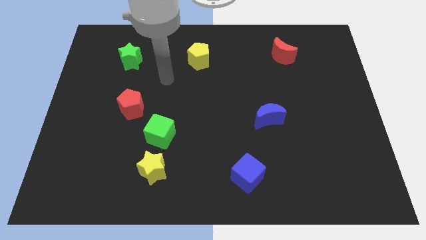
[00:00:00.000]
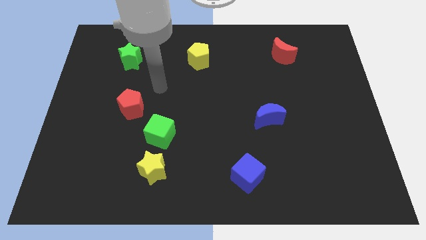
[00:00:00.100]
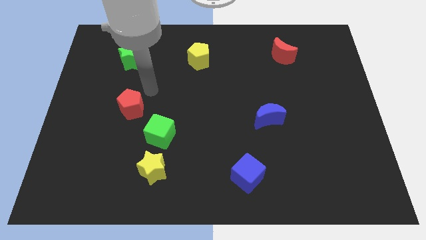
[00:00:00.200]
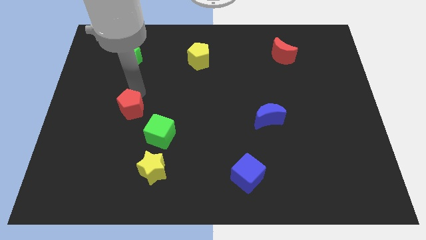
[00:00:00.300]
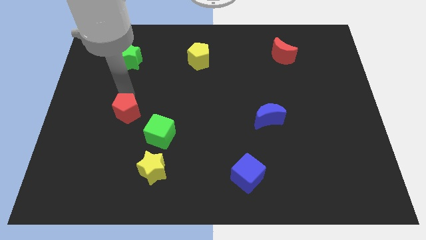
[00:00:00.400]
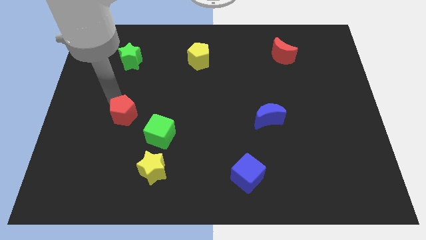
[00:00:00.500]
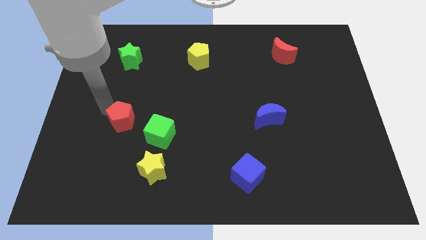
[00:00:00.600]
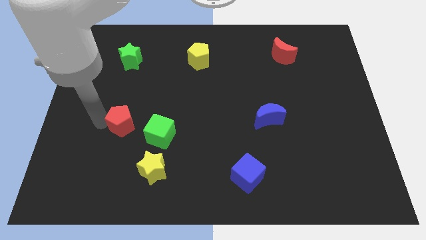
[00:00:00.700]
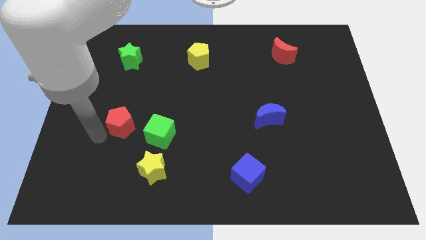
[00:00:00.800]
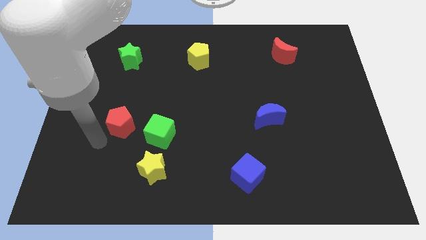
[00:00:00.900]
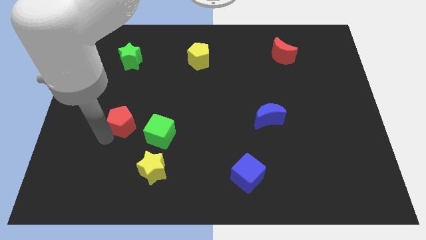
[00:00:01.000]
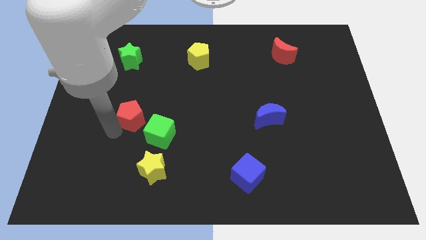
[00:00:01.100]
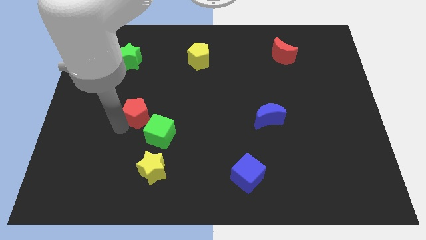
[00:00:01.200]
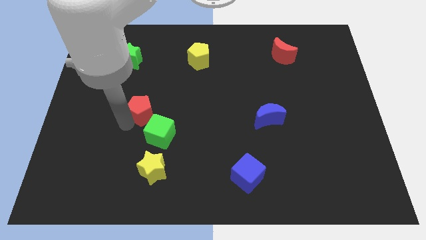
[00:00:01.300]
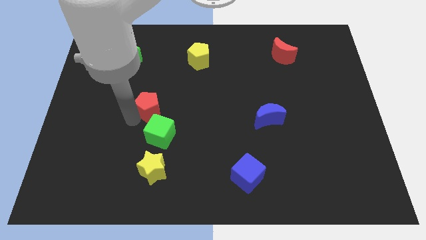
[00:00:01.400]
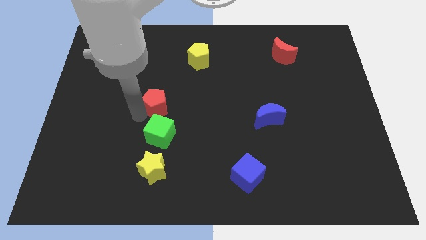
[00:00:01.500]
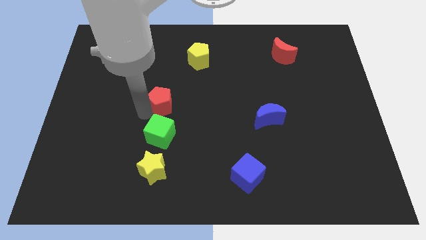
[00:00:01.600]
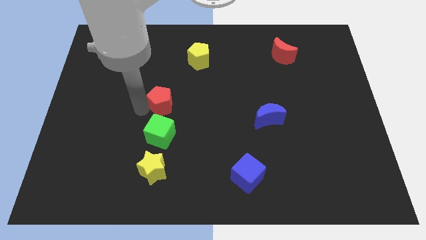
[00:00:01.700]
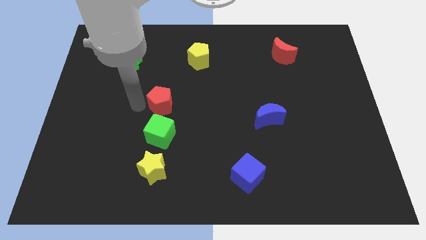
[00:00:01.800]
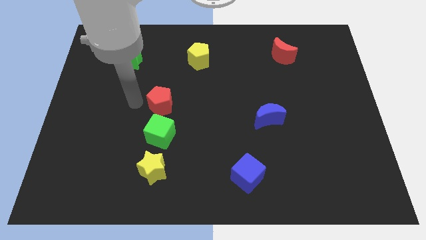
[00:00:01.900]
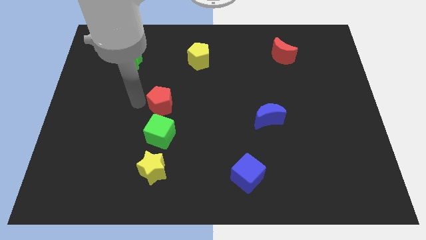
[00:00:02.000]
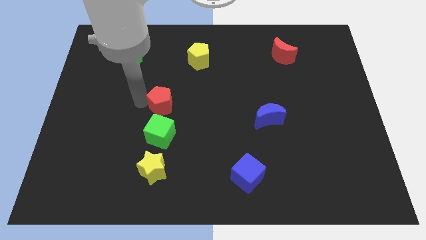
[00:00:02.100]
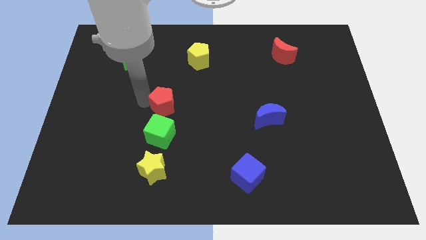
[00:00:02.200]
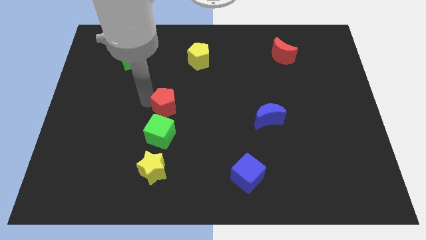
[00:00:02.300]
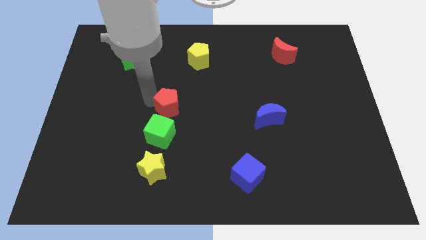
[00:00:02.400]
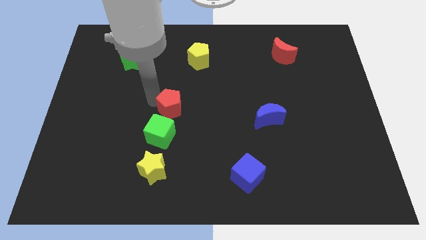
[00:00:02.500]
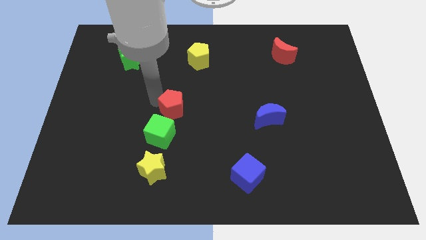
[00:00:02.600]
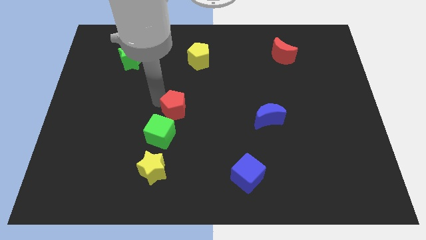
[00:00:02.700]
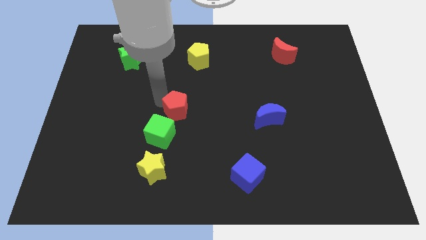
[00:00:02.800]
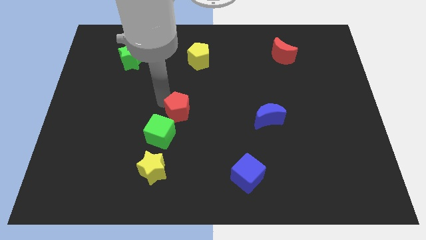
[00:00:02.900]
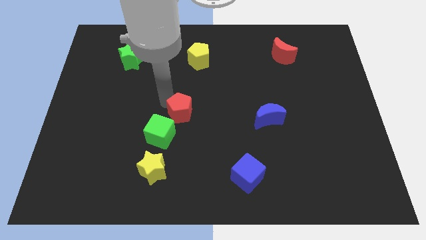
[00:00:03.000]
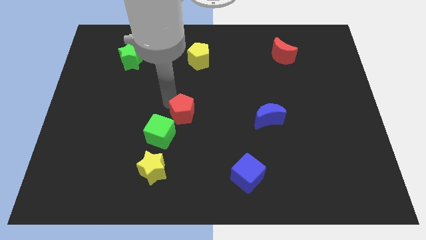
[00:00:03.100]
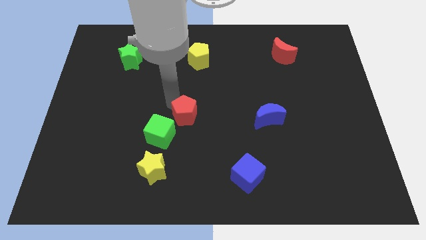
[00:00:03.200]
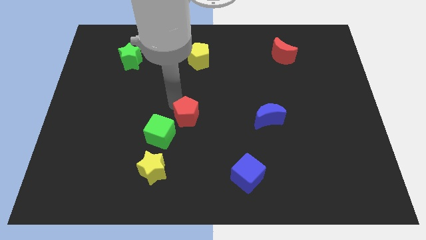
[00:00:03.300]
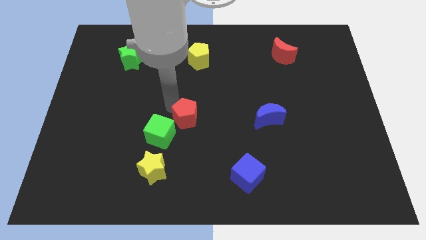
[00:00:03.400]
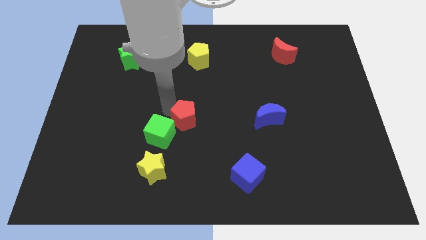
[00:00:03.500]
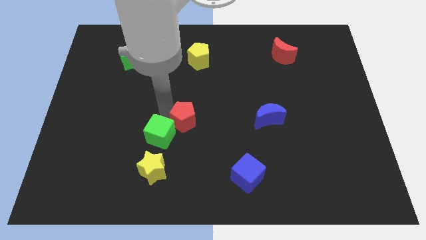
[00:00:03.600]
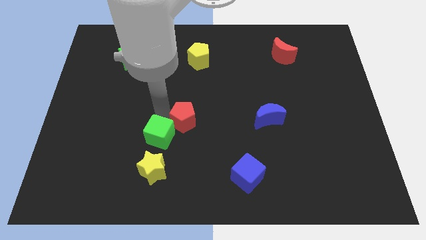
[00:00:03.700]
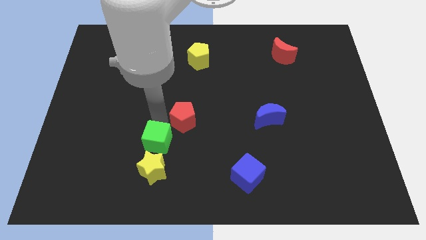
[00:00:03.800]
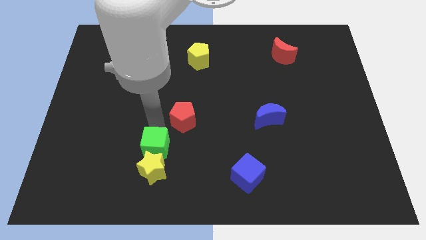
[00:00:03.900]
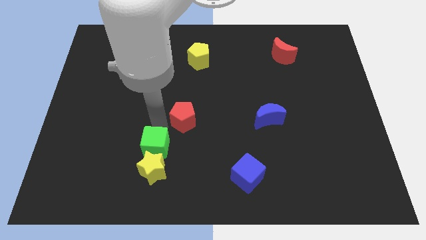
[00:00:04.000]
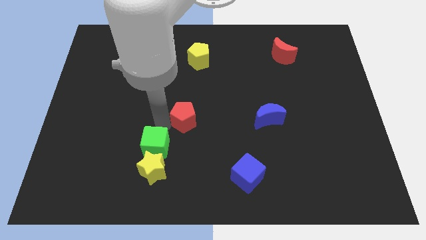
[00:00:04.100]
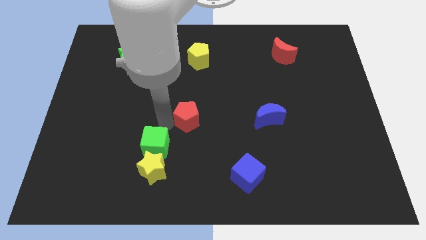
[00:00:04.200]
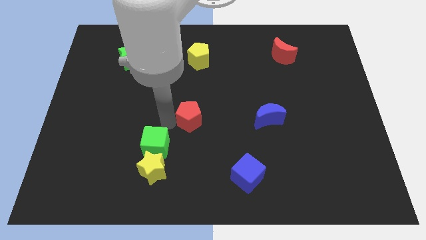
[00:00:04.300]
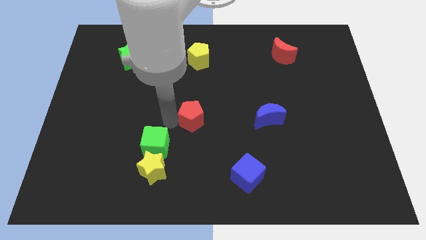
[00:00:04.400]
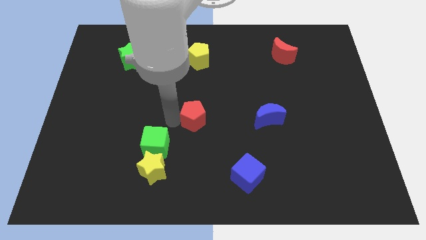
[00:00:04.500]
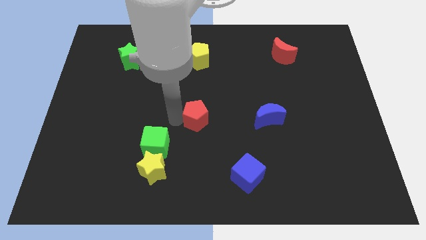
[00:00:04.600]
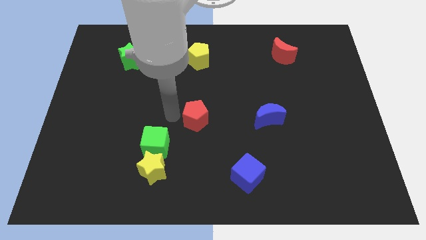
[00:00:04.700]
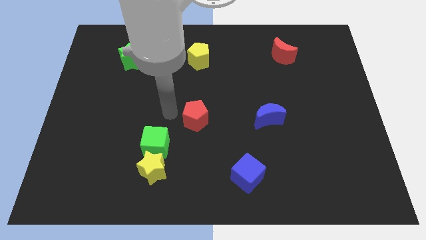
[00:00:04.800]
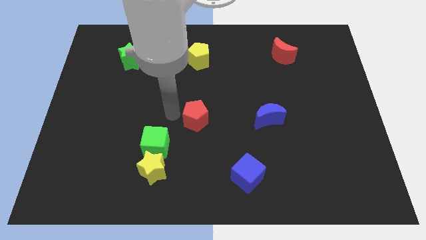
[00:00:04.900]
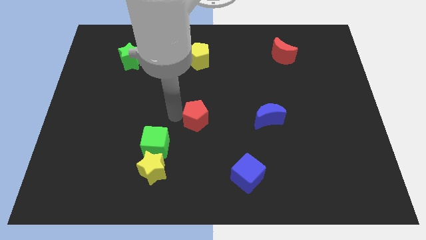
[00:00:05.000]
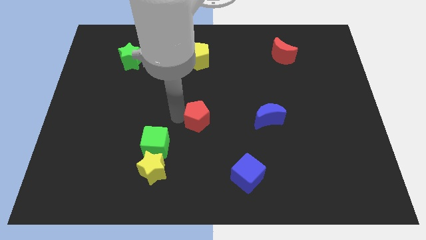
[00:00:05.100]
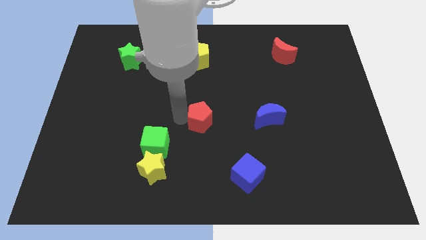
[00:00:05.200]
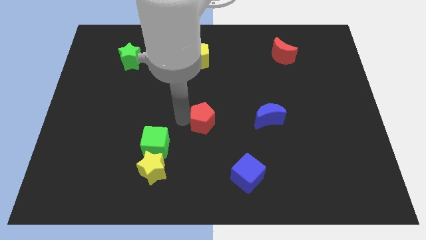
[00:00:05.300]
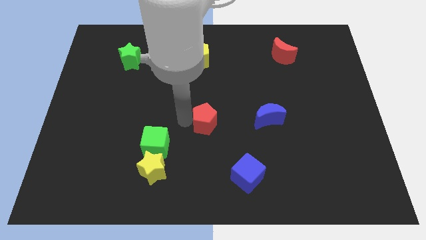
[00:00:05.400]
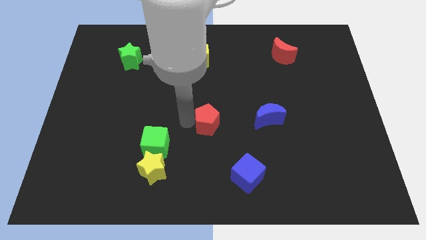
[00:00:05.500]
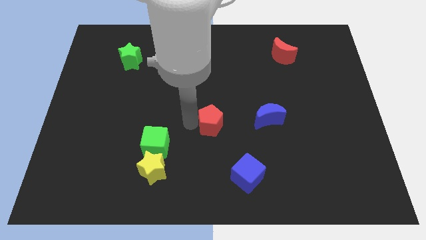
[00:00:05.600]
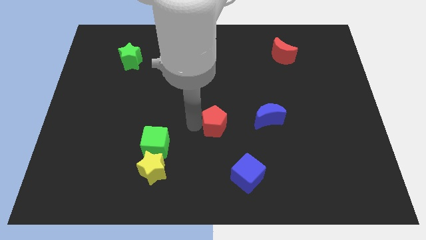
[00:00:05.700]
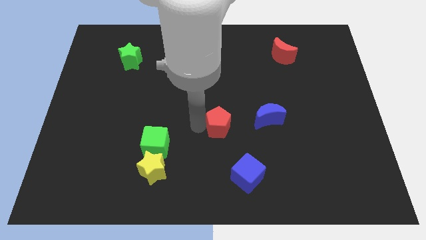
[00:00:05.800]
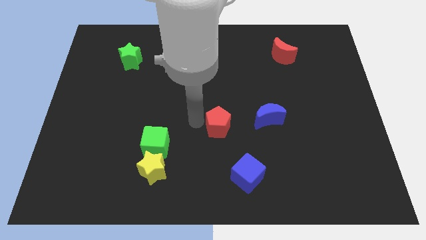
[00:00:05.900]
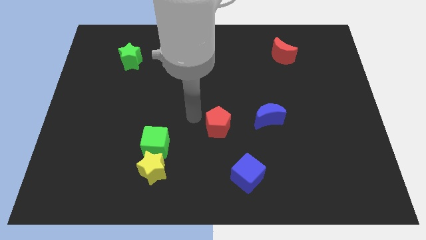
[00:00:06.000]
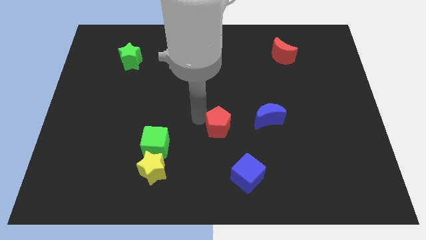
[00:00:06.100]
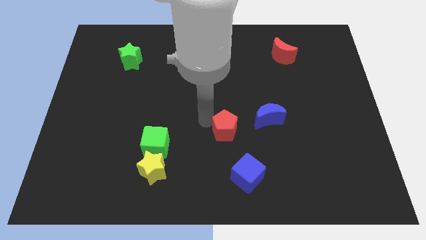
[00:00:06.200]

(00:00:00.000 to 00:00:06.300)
put the red pentagon to the bottom left side of the blue moon
